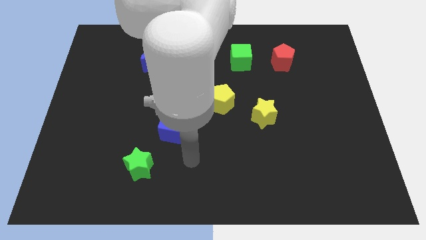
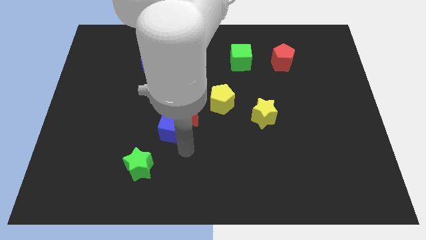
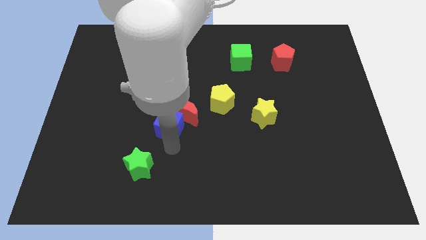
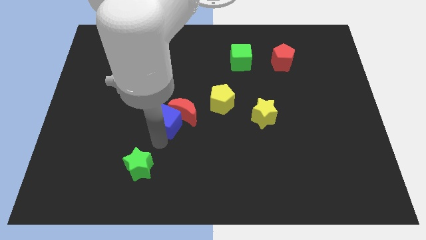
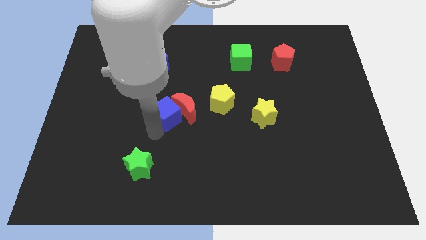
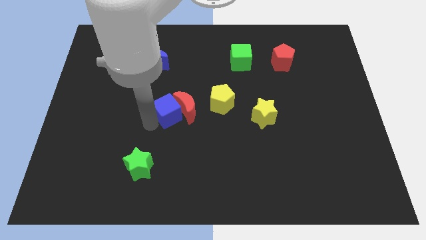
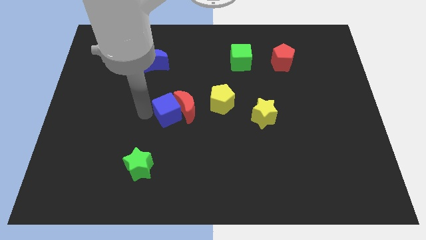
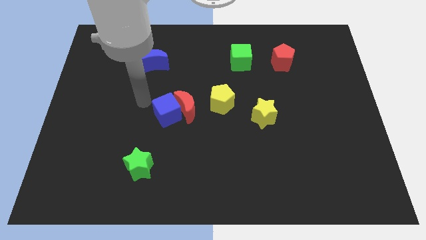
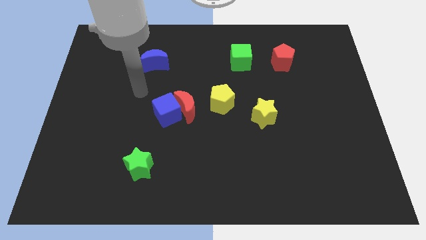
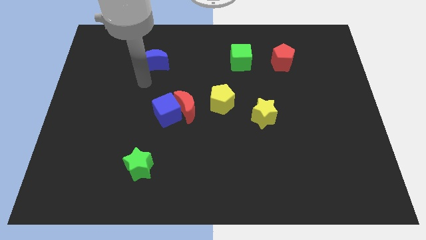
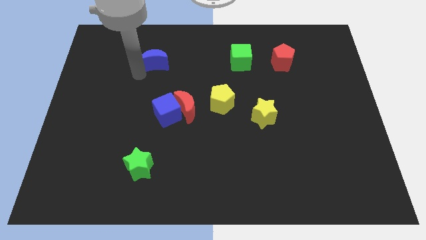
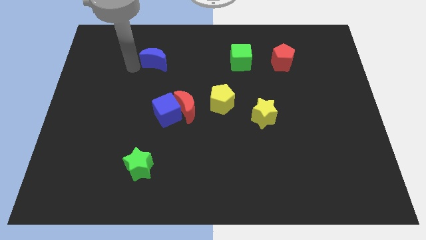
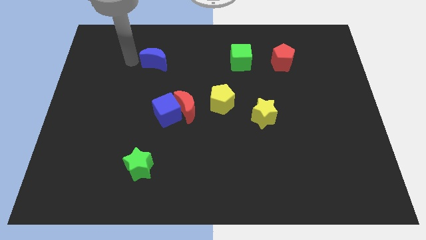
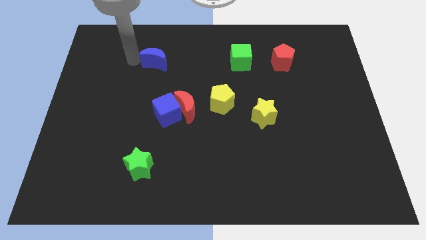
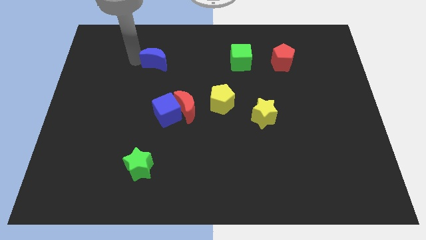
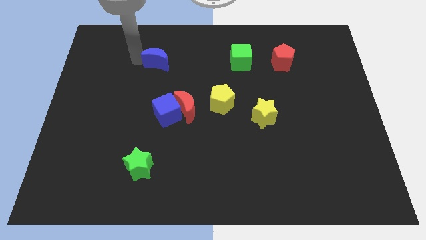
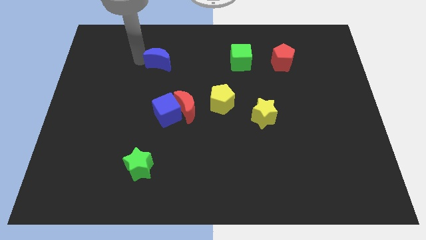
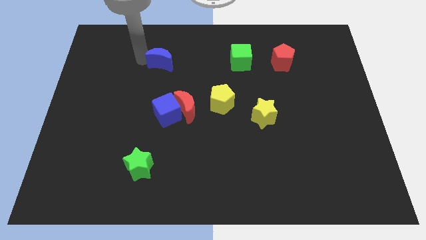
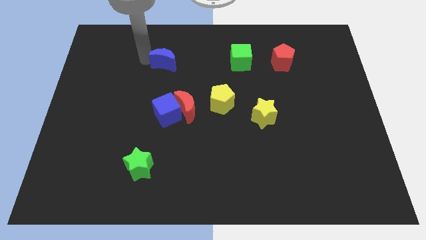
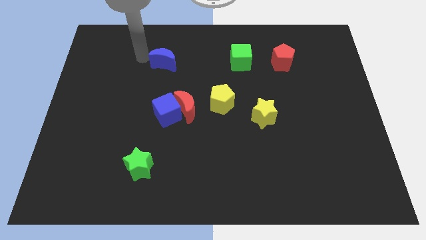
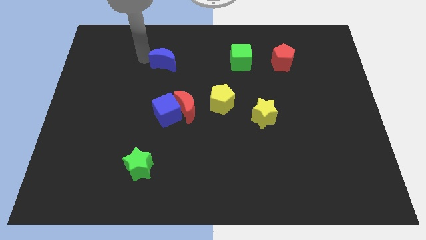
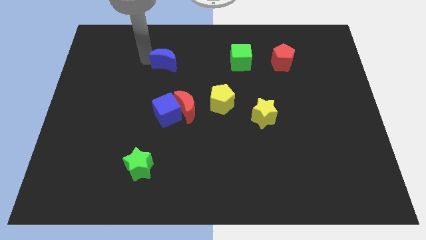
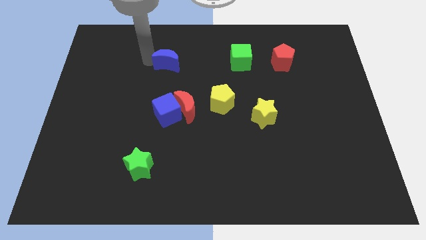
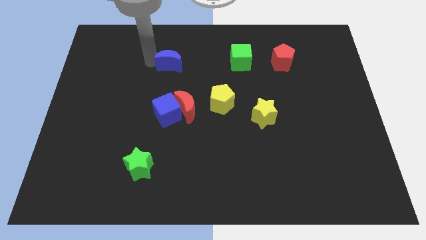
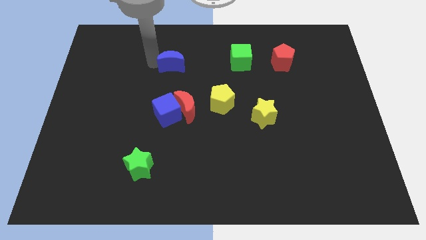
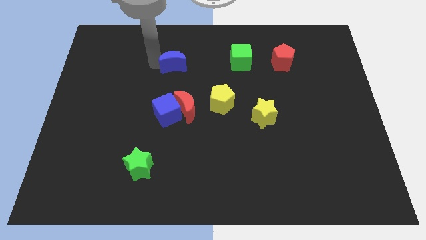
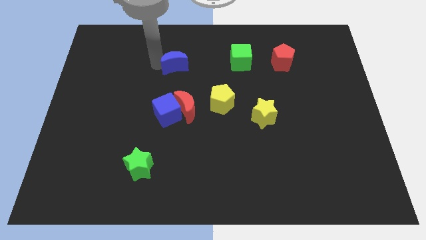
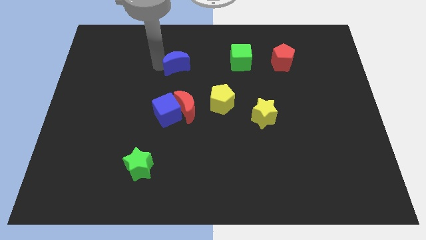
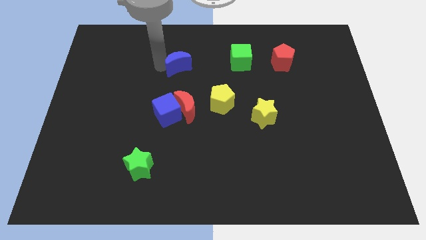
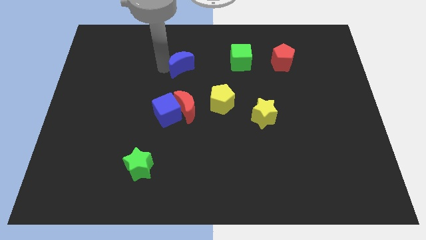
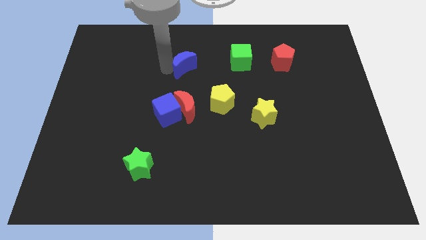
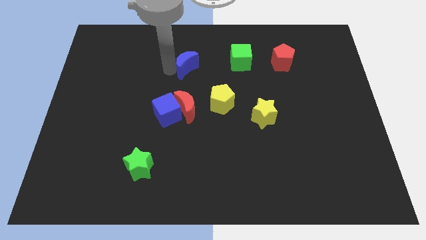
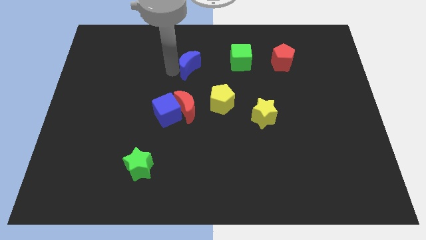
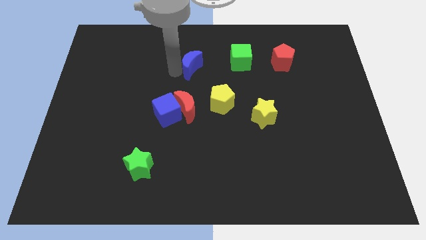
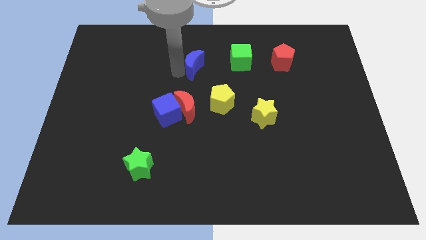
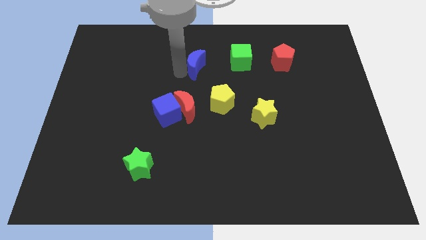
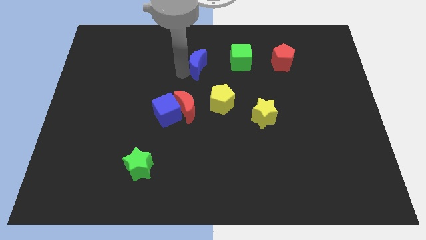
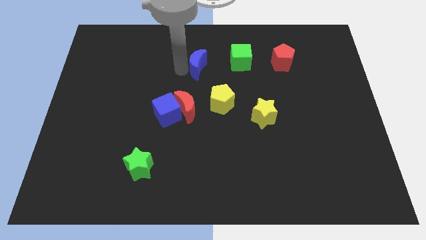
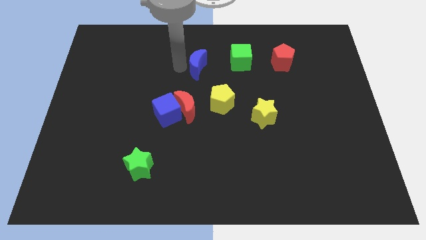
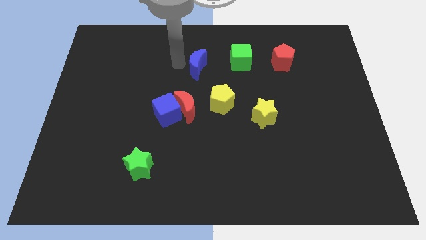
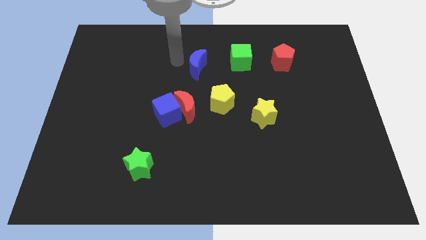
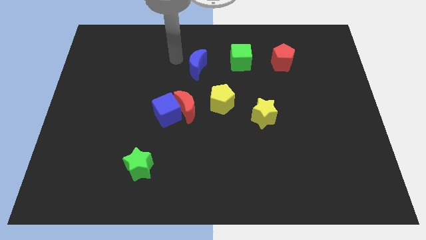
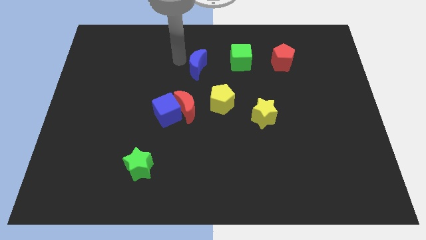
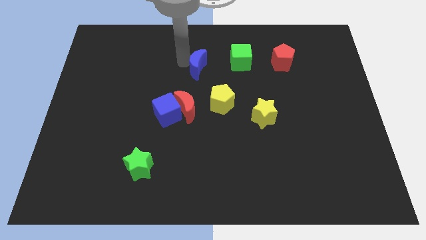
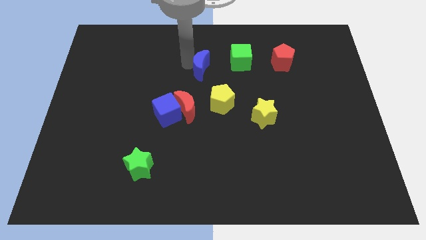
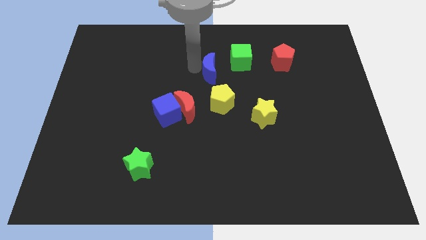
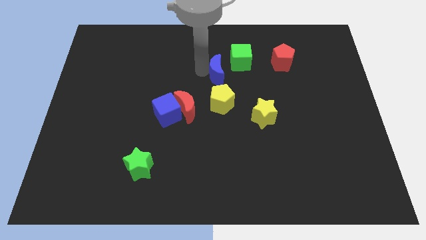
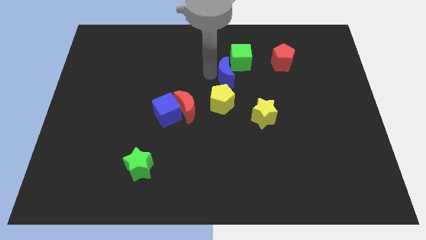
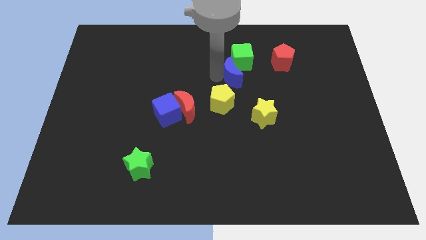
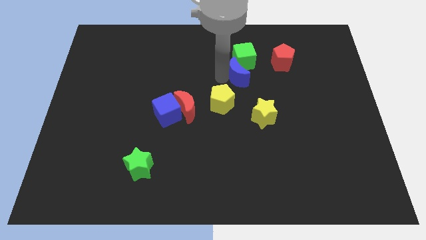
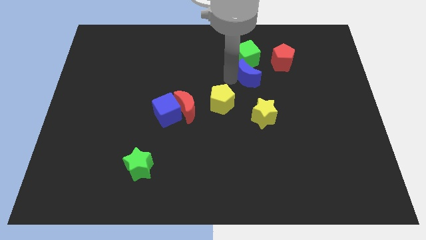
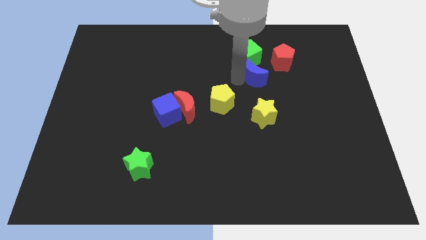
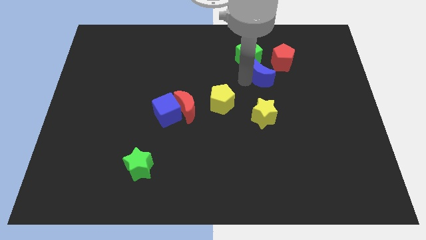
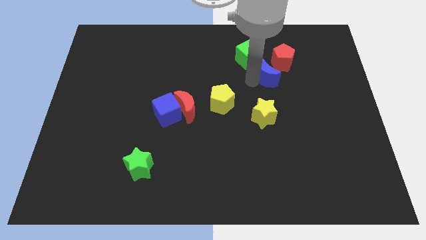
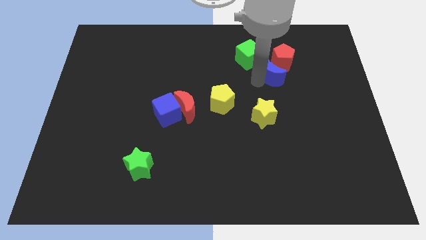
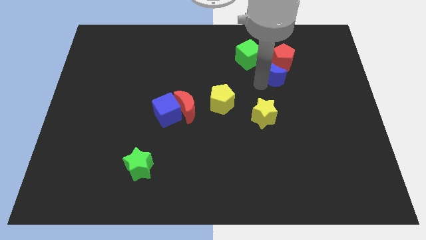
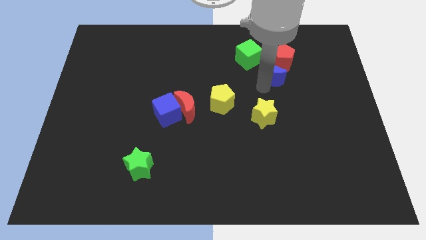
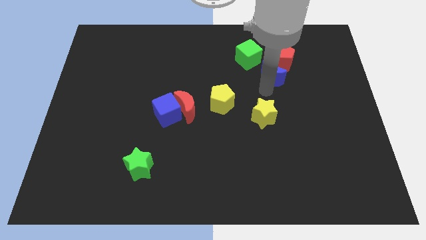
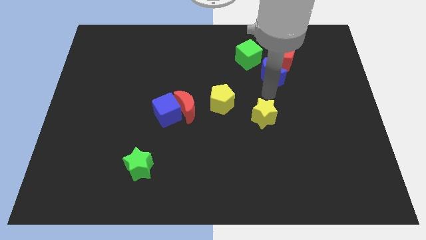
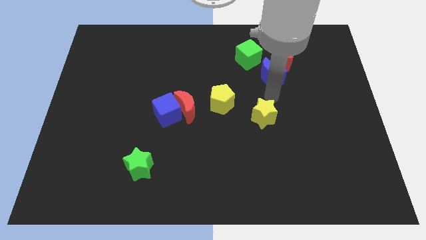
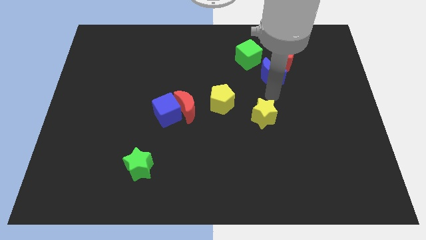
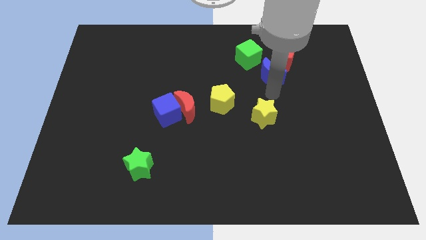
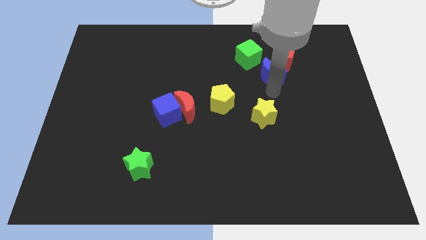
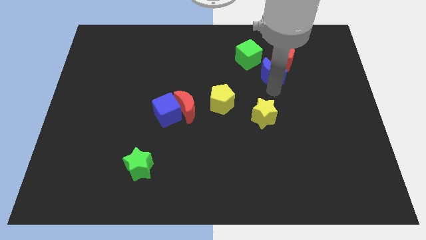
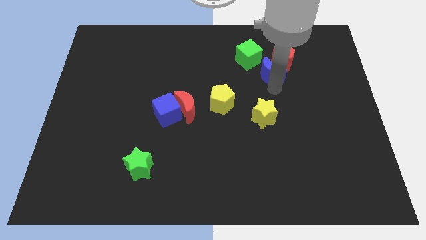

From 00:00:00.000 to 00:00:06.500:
move the blue moon next to the red pentagon

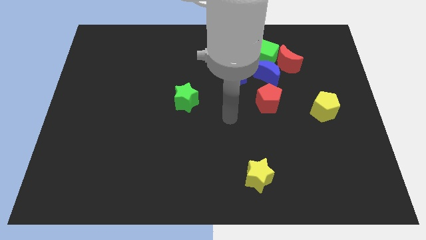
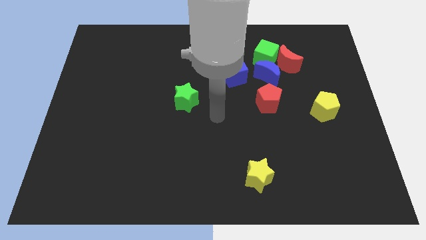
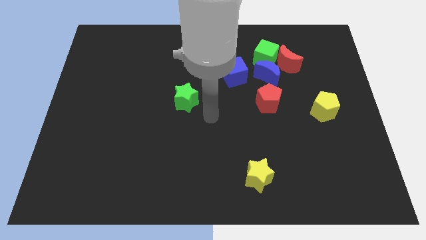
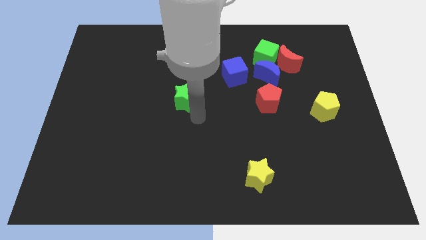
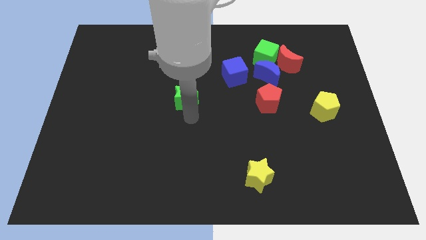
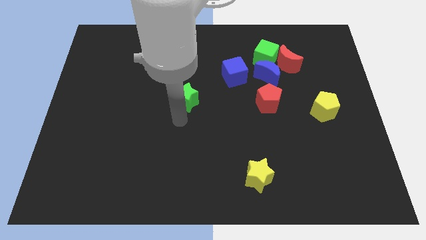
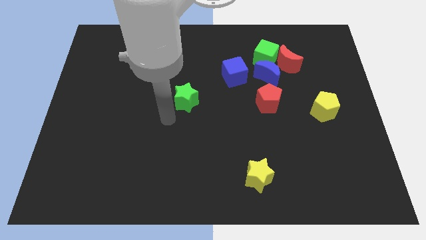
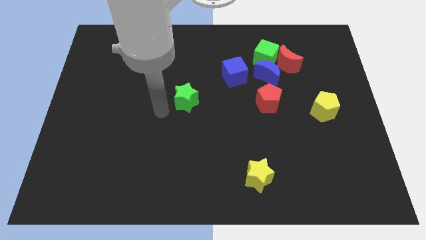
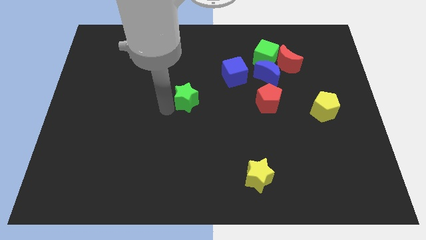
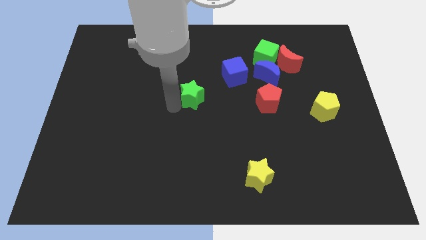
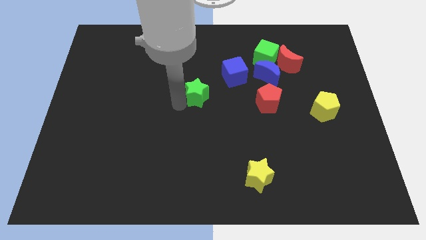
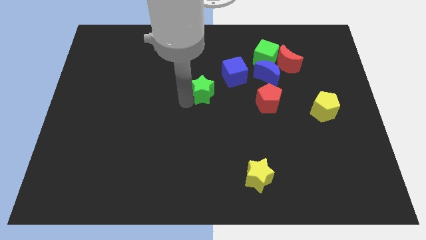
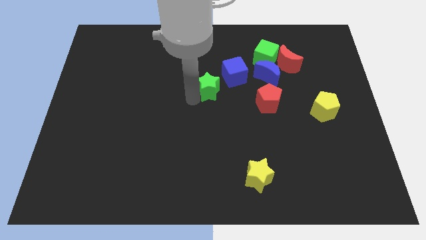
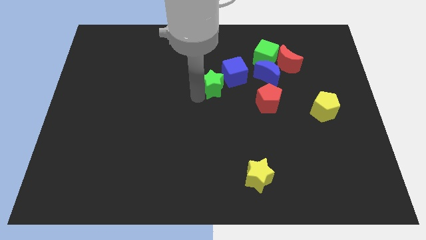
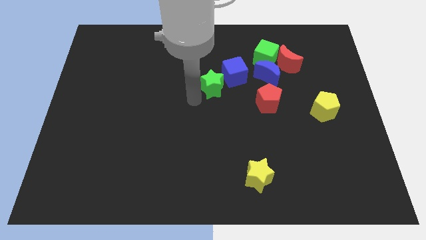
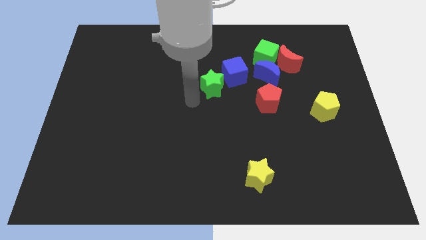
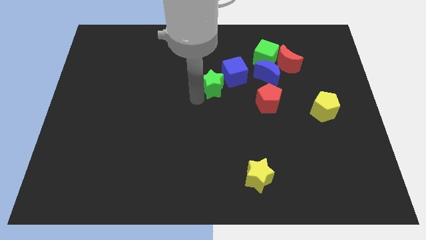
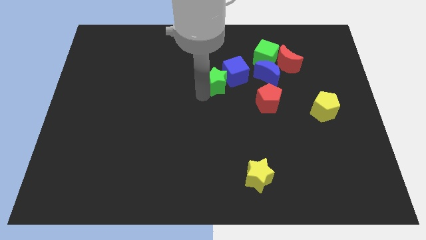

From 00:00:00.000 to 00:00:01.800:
slide the green star to the blue cube
